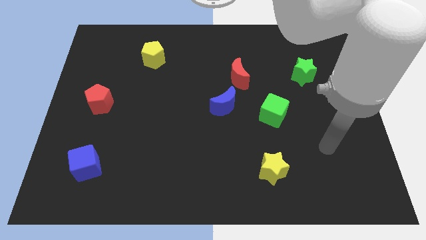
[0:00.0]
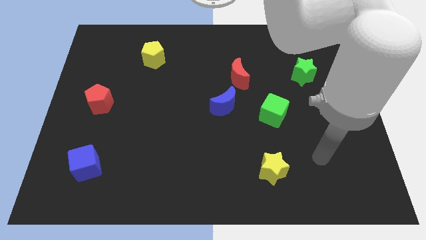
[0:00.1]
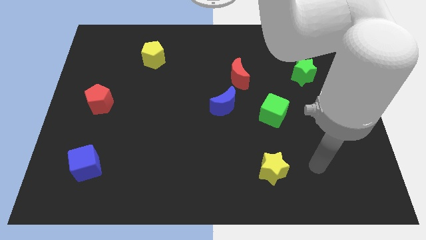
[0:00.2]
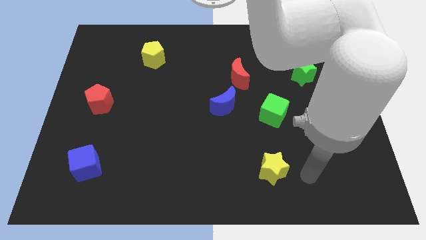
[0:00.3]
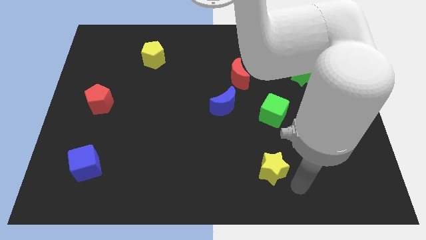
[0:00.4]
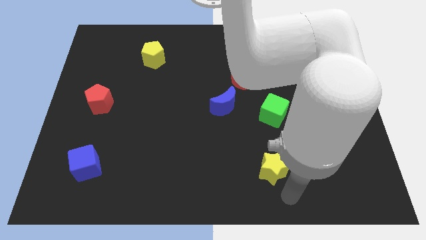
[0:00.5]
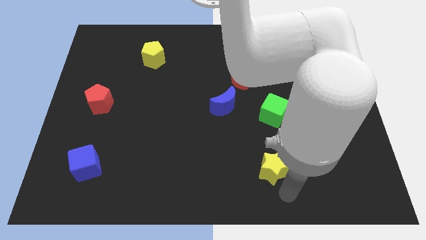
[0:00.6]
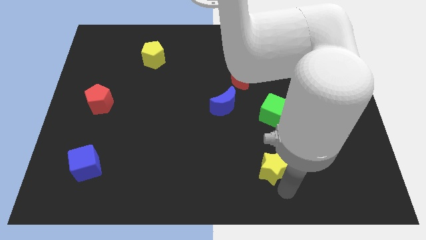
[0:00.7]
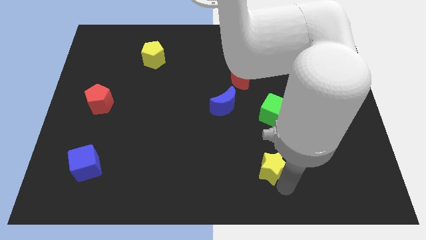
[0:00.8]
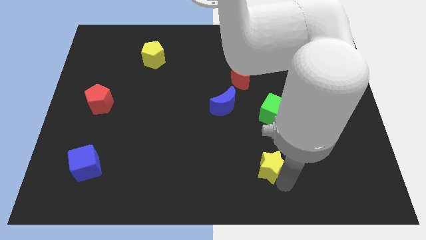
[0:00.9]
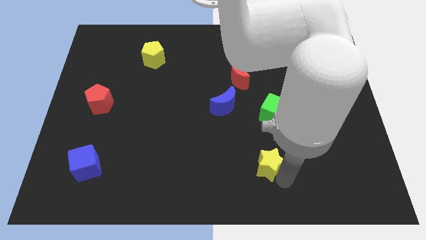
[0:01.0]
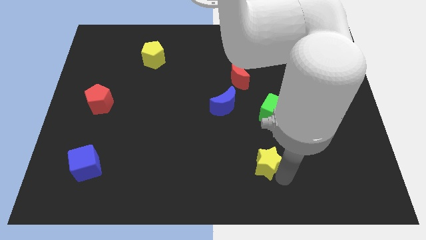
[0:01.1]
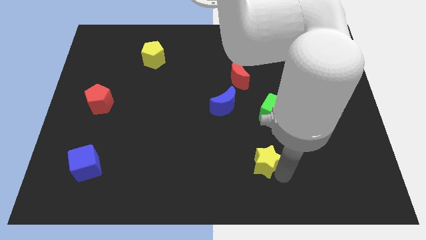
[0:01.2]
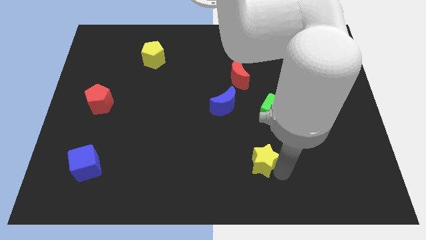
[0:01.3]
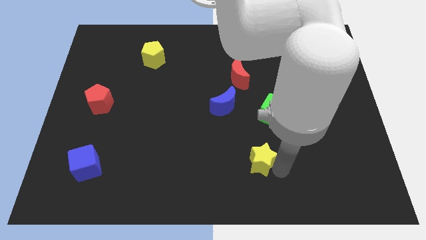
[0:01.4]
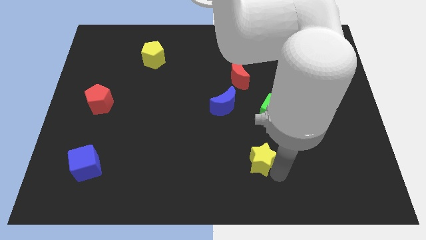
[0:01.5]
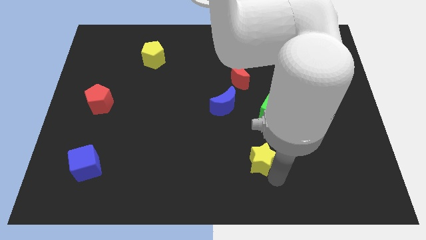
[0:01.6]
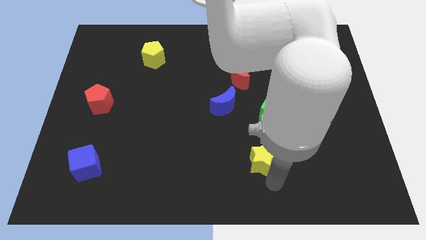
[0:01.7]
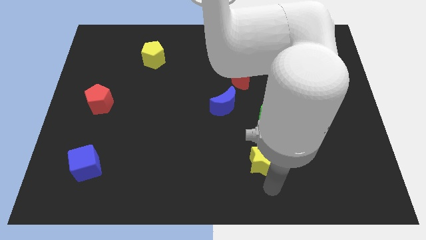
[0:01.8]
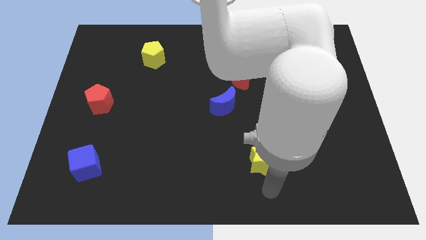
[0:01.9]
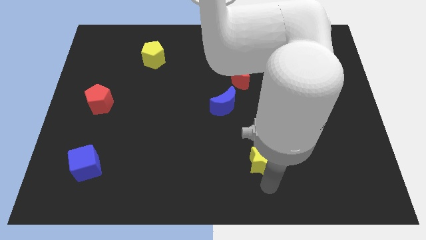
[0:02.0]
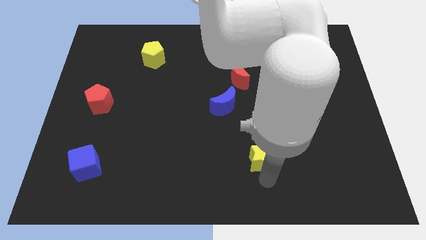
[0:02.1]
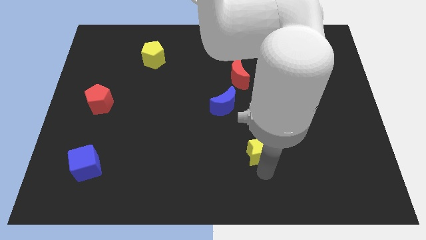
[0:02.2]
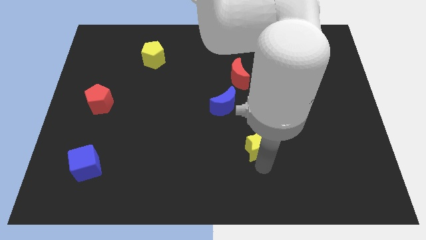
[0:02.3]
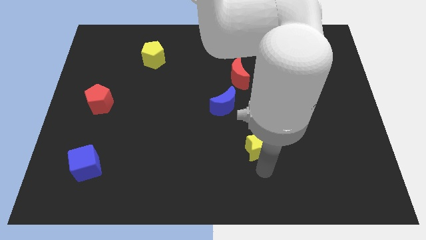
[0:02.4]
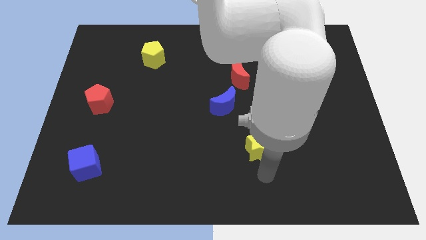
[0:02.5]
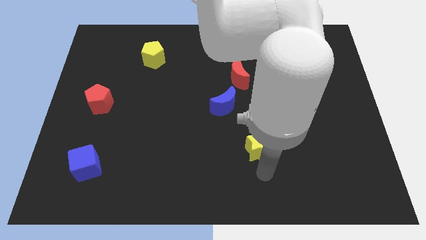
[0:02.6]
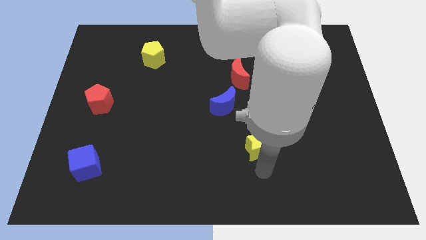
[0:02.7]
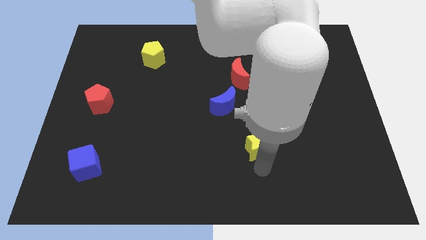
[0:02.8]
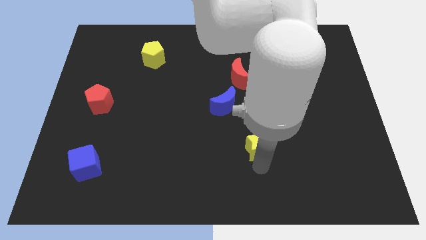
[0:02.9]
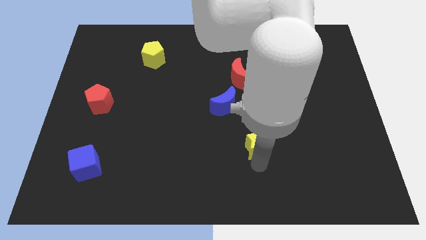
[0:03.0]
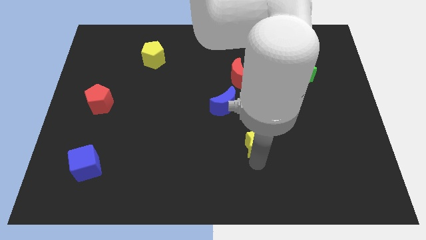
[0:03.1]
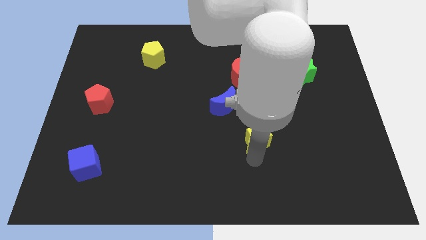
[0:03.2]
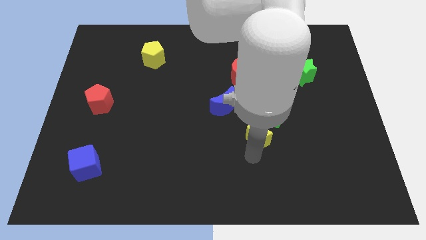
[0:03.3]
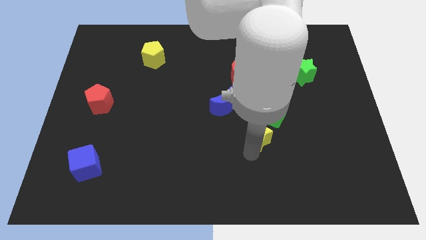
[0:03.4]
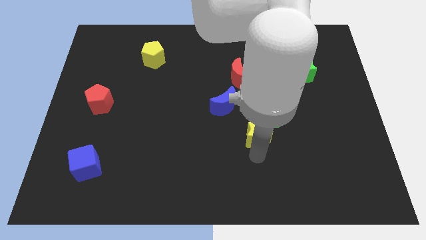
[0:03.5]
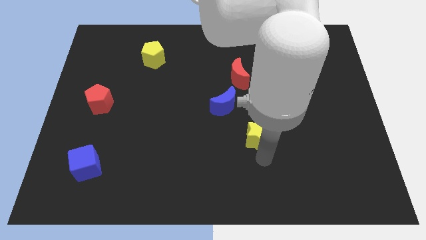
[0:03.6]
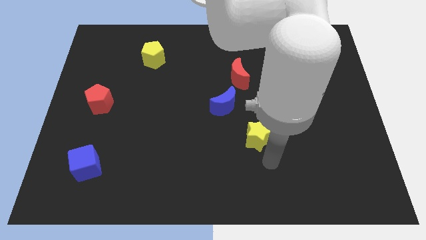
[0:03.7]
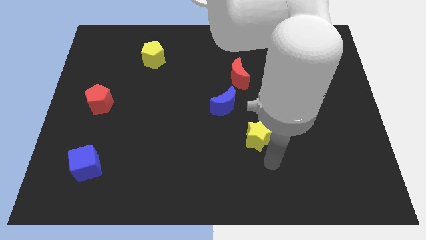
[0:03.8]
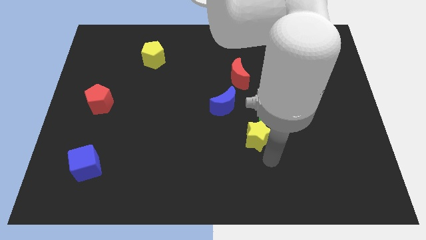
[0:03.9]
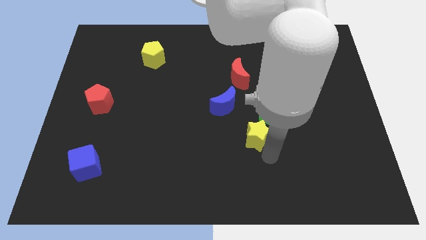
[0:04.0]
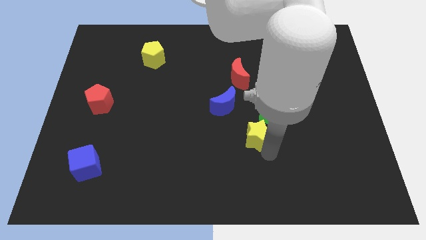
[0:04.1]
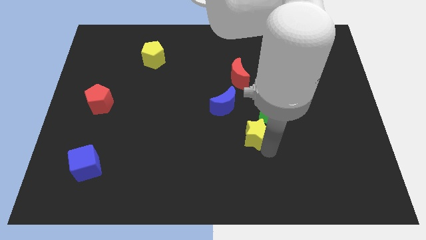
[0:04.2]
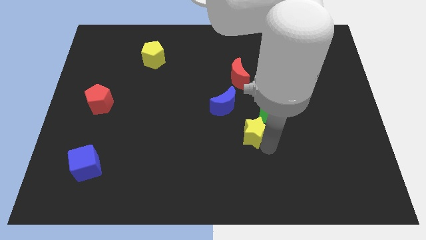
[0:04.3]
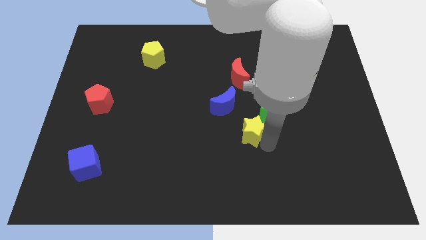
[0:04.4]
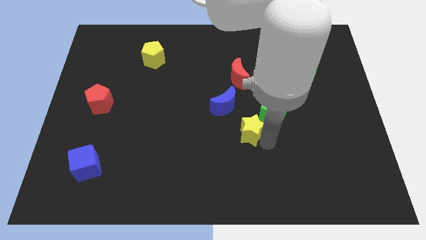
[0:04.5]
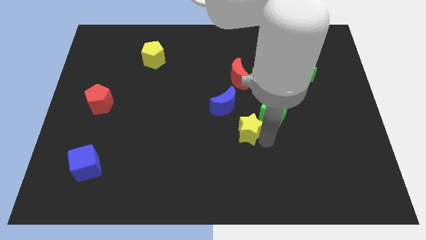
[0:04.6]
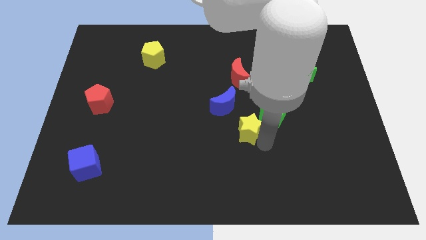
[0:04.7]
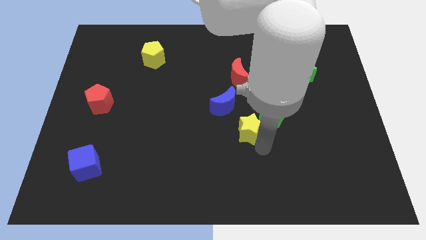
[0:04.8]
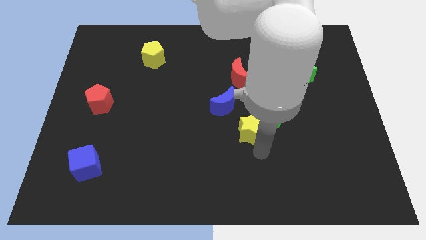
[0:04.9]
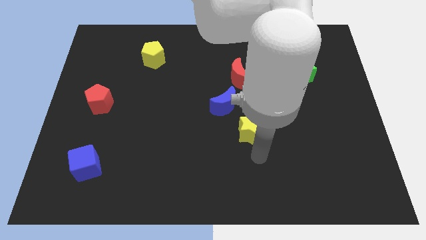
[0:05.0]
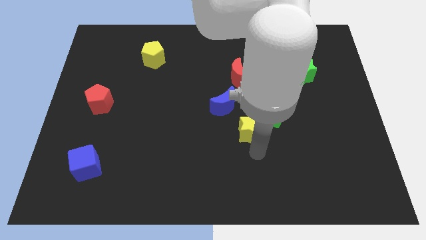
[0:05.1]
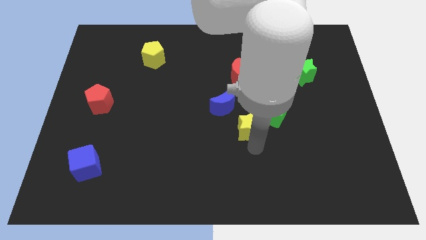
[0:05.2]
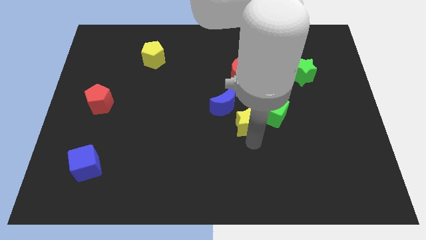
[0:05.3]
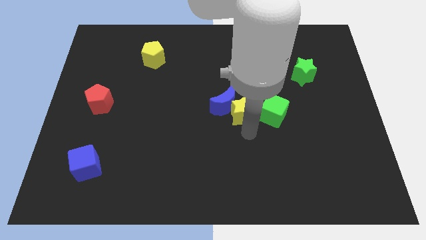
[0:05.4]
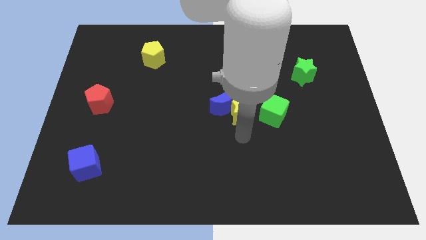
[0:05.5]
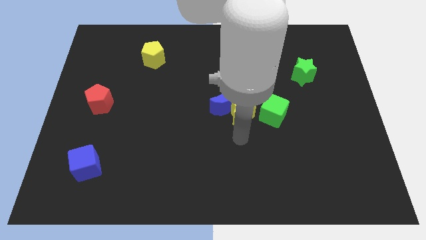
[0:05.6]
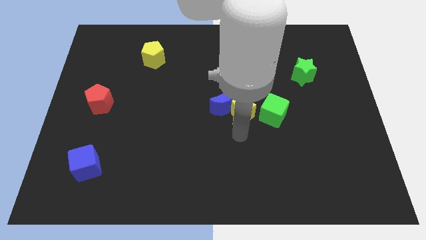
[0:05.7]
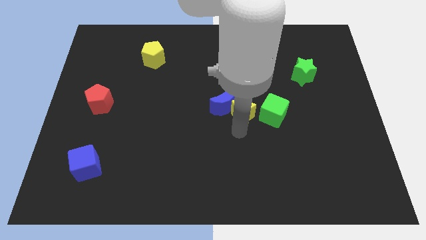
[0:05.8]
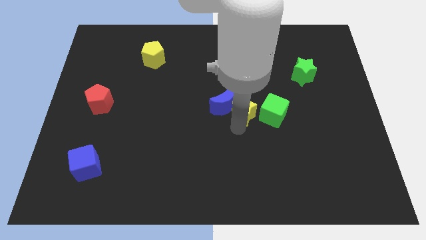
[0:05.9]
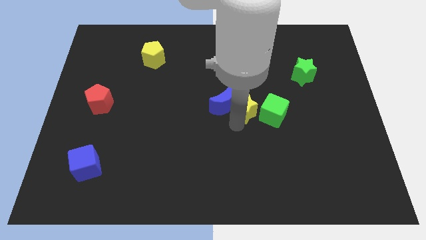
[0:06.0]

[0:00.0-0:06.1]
put the yellow star to the top right side of the blue moon

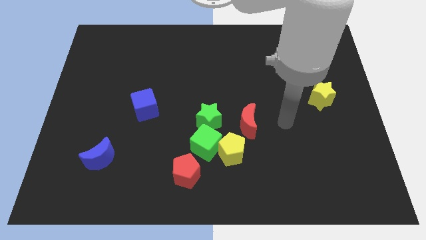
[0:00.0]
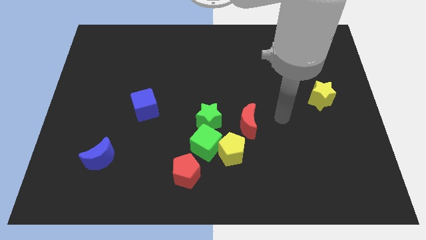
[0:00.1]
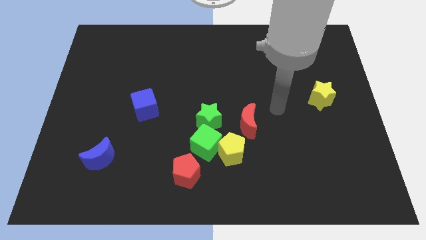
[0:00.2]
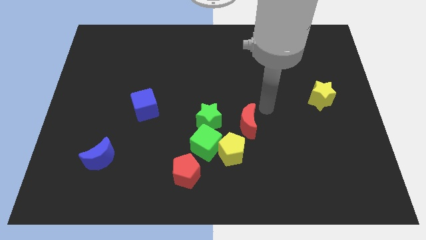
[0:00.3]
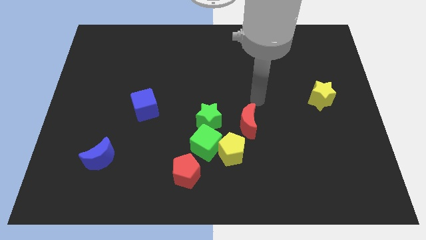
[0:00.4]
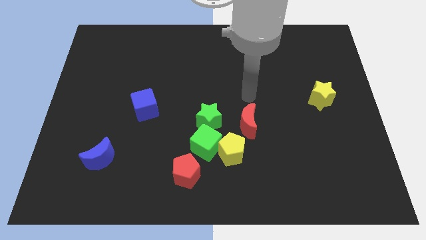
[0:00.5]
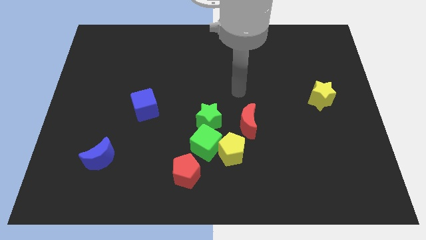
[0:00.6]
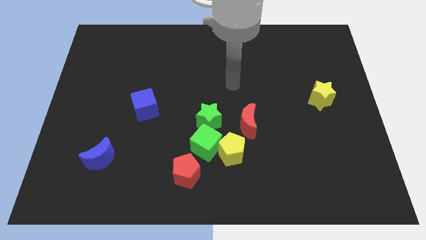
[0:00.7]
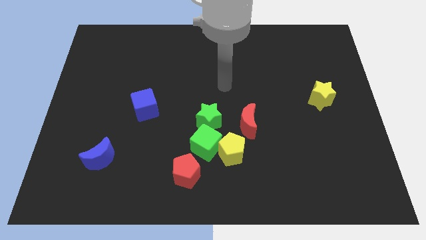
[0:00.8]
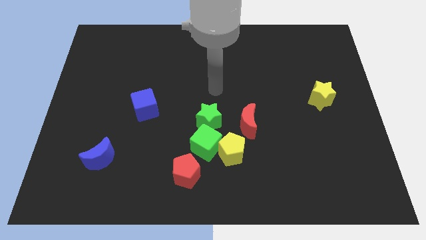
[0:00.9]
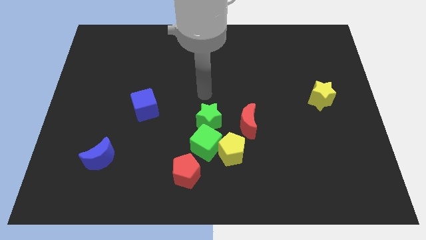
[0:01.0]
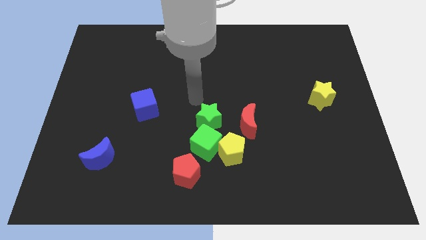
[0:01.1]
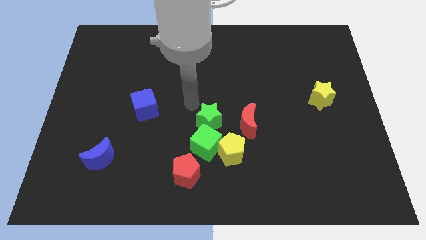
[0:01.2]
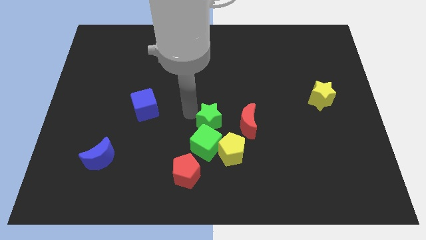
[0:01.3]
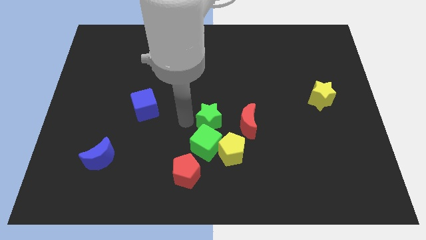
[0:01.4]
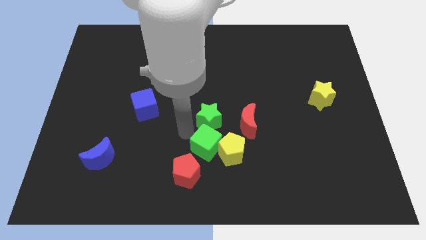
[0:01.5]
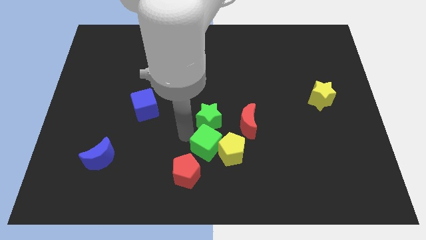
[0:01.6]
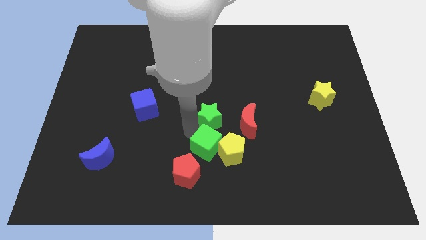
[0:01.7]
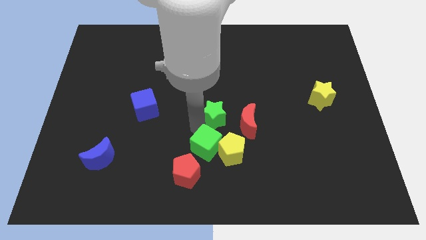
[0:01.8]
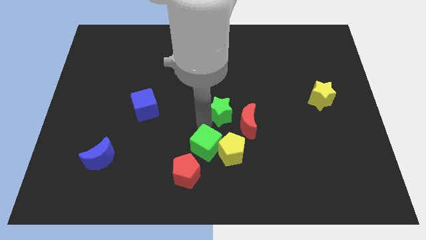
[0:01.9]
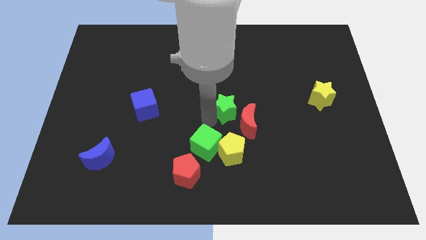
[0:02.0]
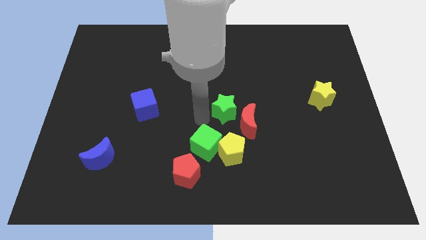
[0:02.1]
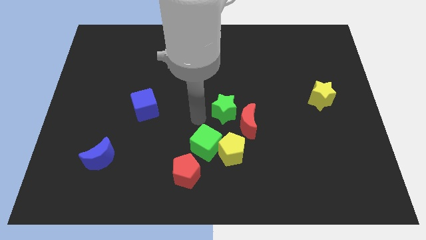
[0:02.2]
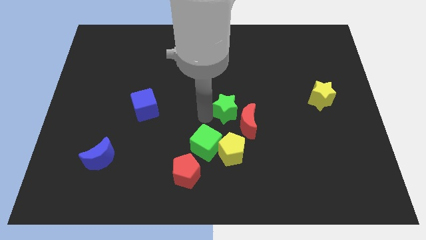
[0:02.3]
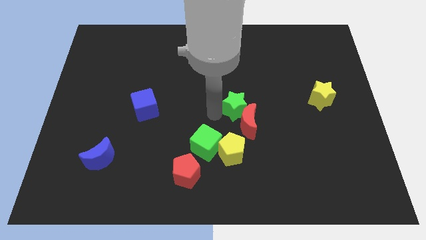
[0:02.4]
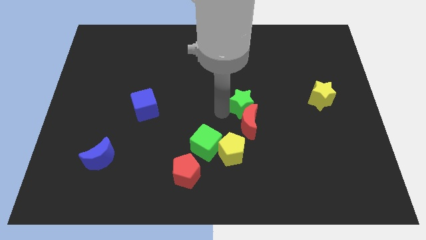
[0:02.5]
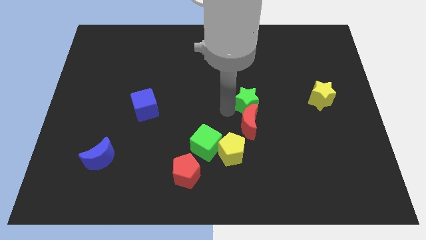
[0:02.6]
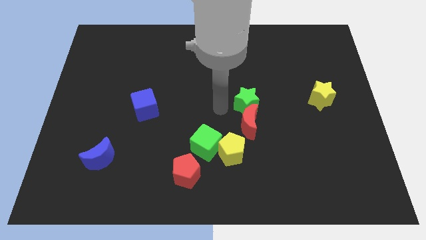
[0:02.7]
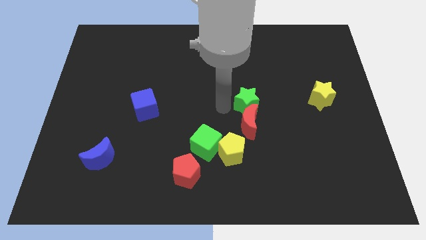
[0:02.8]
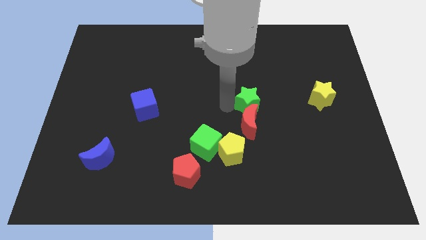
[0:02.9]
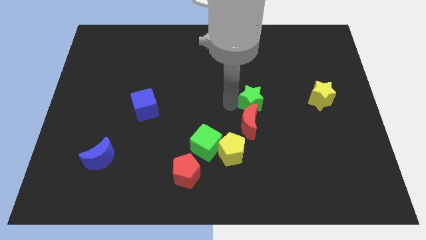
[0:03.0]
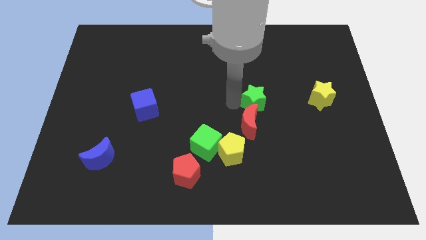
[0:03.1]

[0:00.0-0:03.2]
slide the green star to the left of the yellow star
